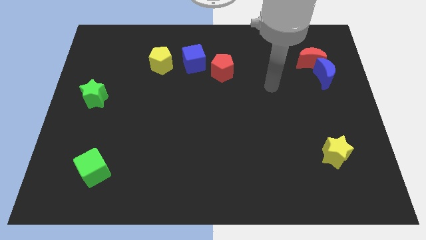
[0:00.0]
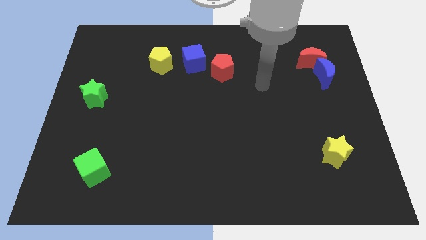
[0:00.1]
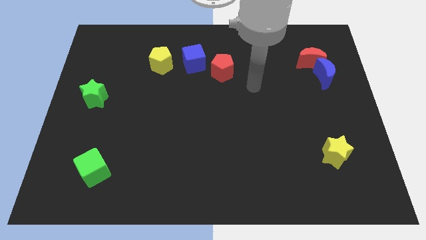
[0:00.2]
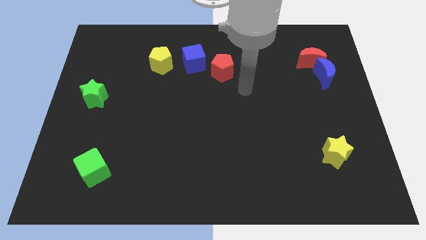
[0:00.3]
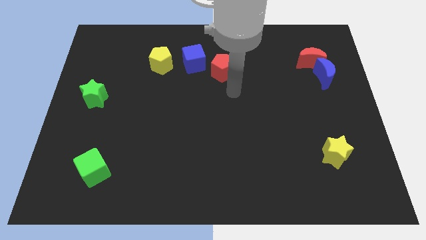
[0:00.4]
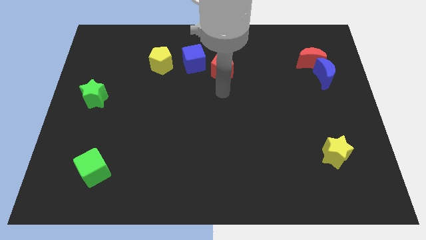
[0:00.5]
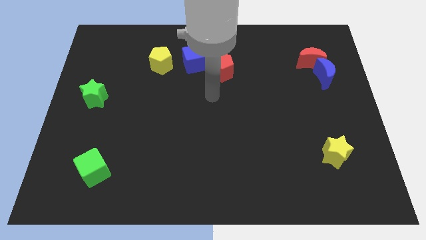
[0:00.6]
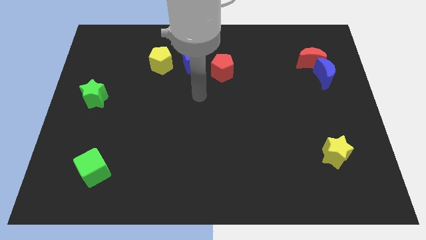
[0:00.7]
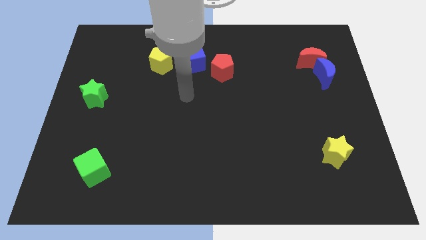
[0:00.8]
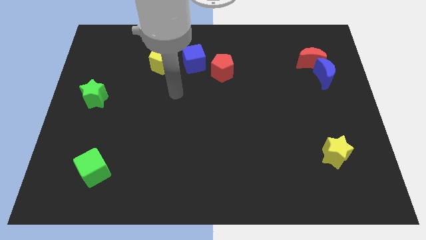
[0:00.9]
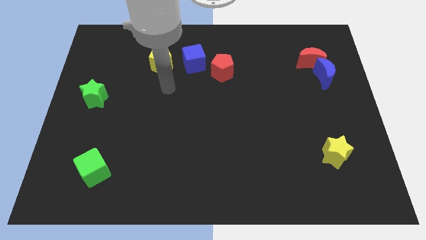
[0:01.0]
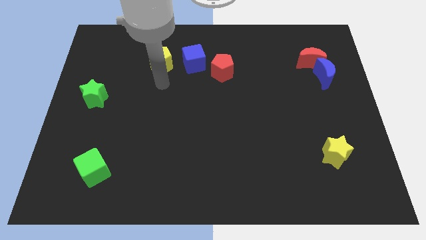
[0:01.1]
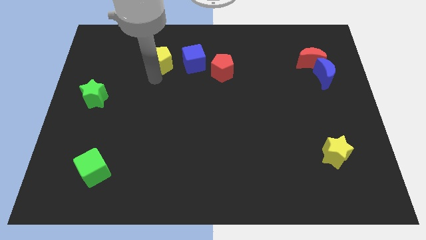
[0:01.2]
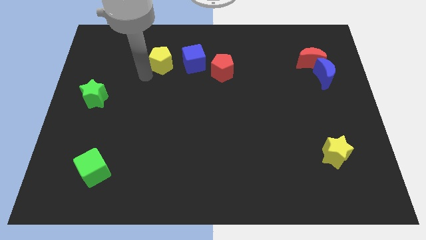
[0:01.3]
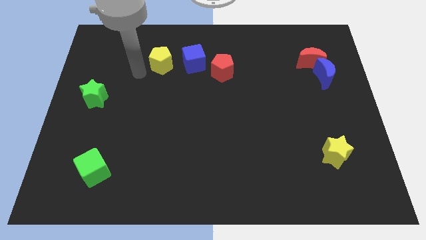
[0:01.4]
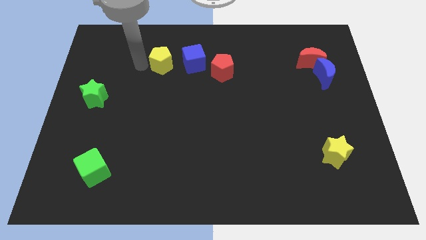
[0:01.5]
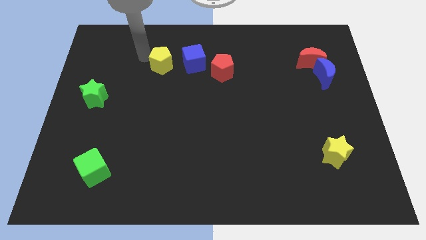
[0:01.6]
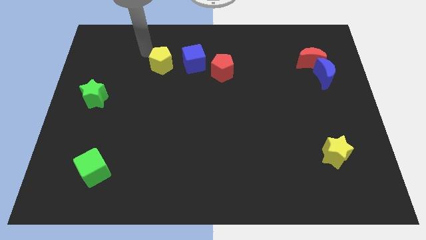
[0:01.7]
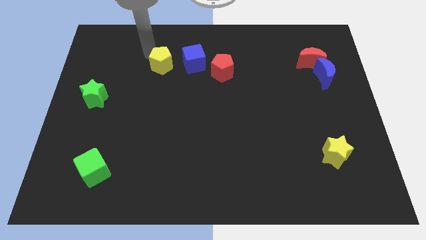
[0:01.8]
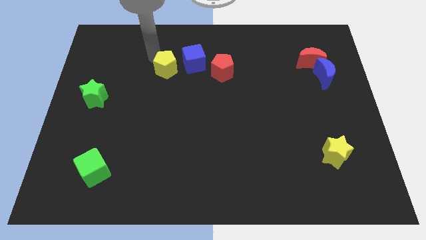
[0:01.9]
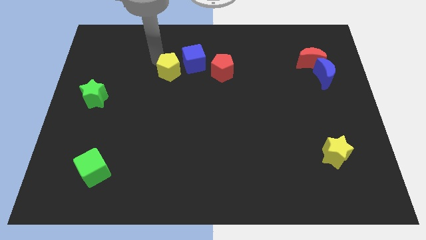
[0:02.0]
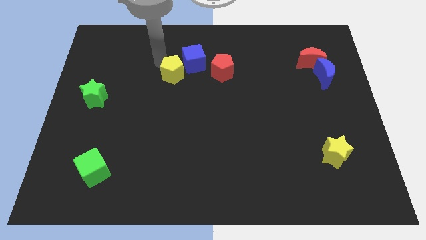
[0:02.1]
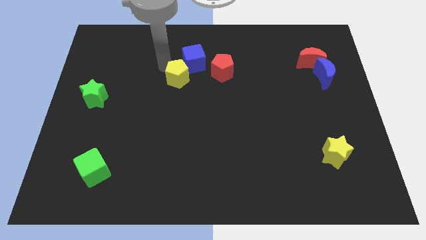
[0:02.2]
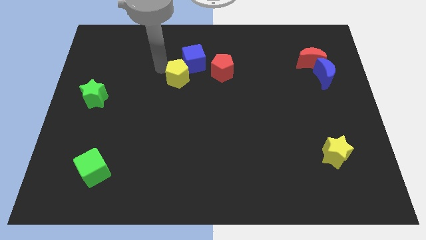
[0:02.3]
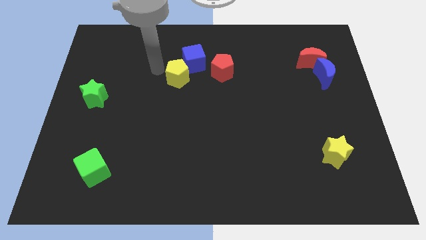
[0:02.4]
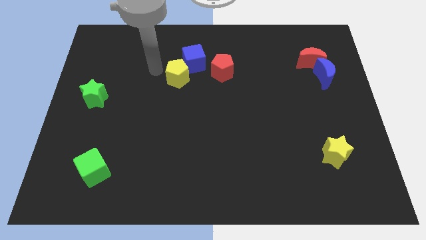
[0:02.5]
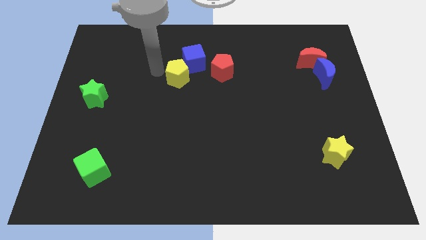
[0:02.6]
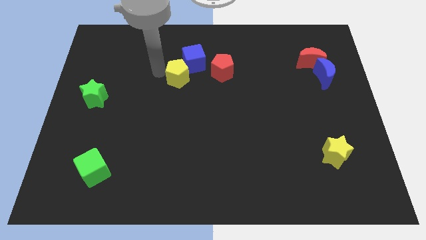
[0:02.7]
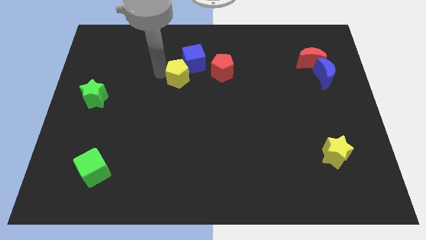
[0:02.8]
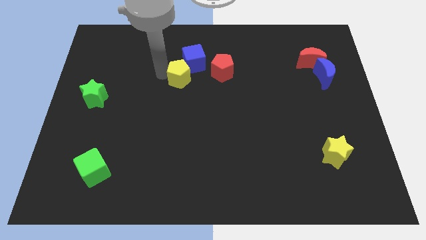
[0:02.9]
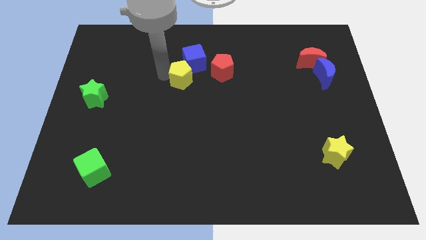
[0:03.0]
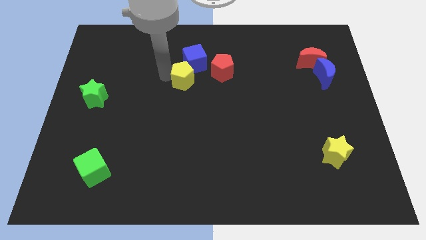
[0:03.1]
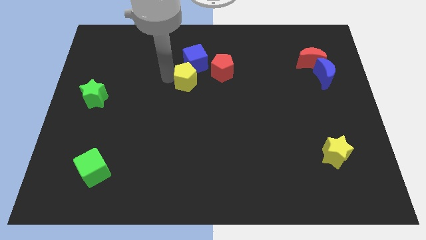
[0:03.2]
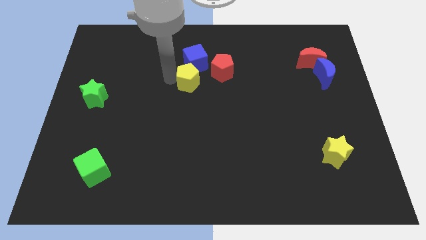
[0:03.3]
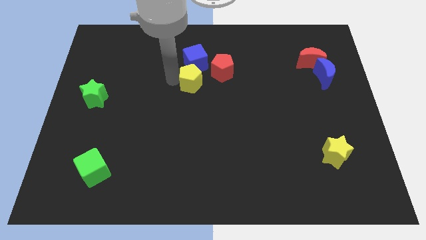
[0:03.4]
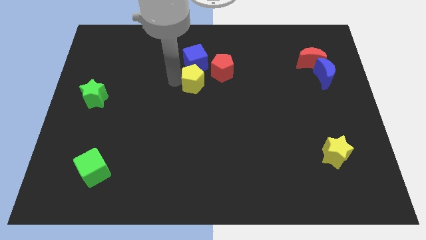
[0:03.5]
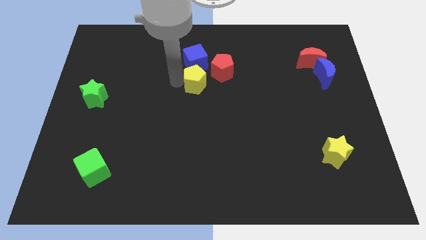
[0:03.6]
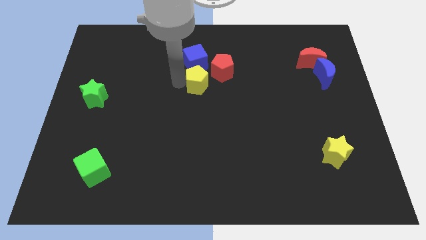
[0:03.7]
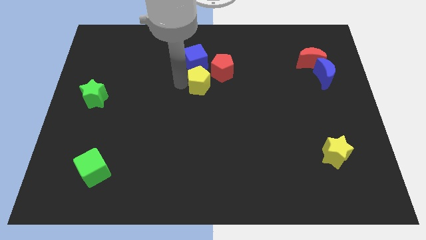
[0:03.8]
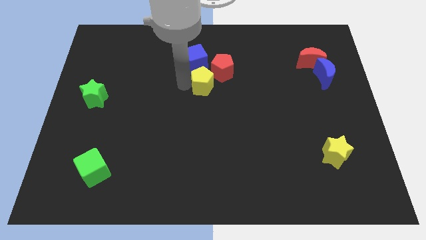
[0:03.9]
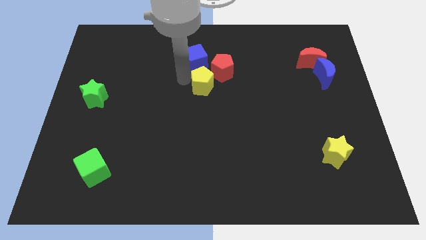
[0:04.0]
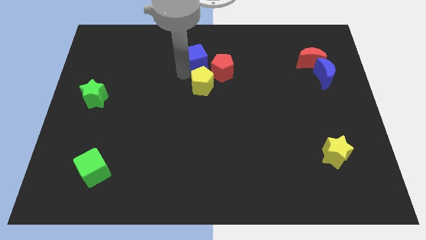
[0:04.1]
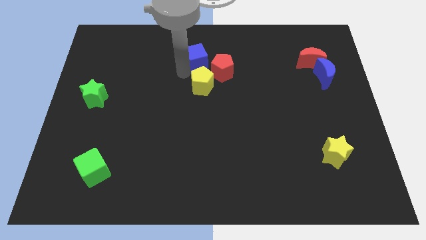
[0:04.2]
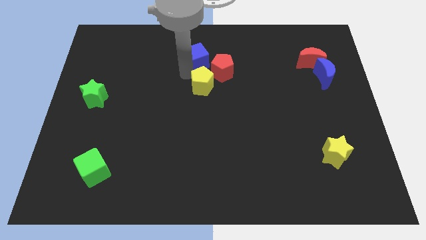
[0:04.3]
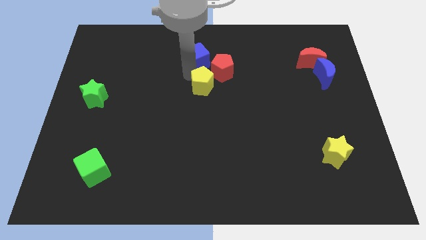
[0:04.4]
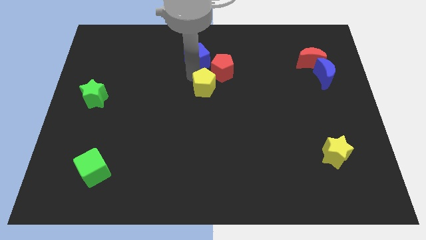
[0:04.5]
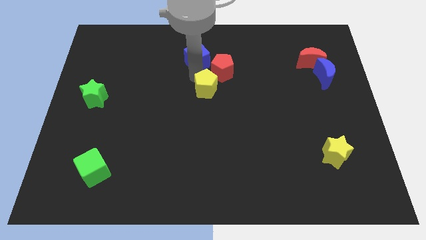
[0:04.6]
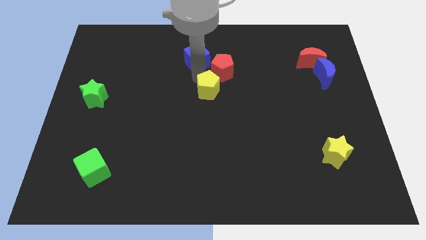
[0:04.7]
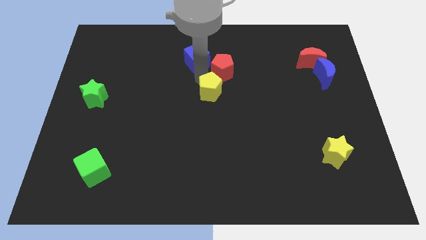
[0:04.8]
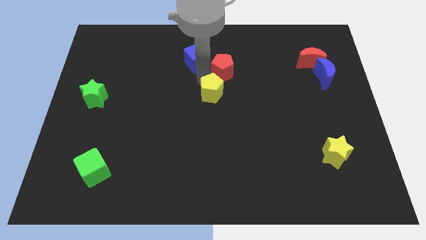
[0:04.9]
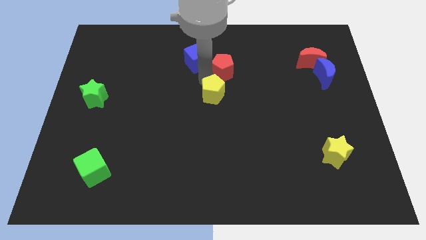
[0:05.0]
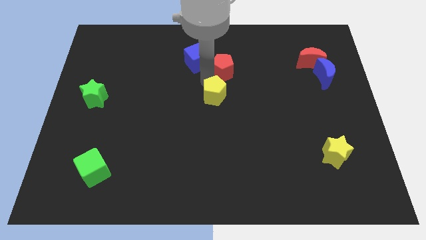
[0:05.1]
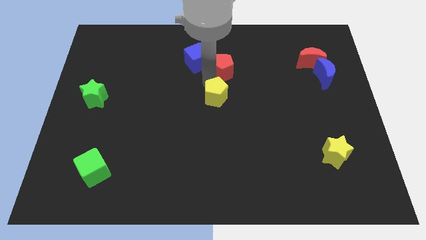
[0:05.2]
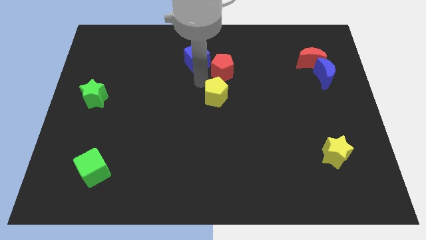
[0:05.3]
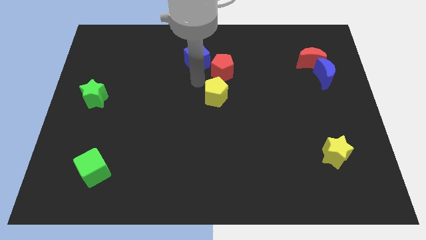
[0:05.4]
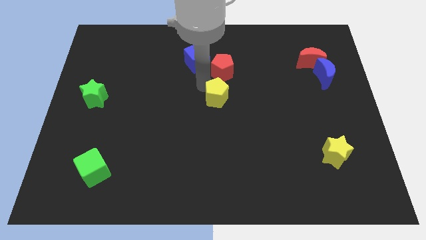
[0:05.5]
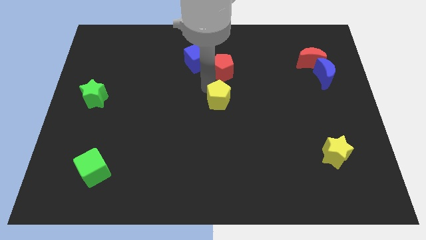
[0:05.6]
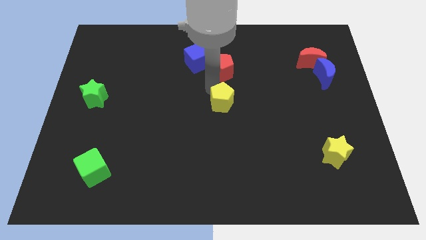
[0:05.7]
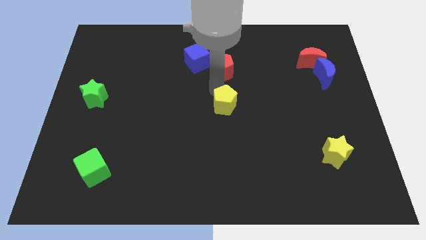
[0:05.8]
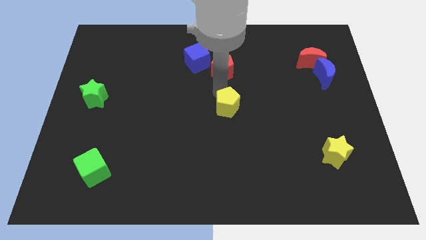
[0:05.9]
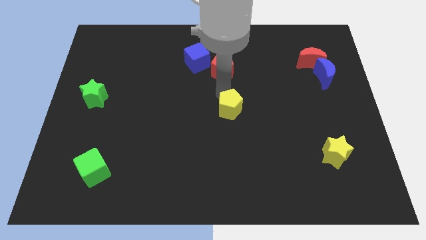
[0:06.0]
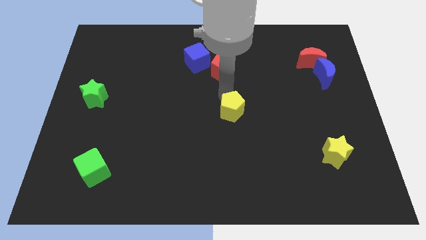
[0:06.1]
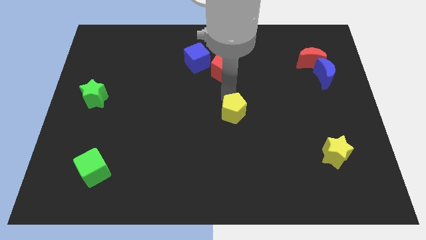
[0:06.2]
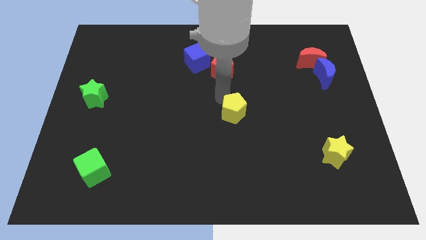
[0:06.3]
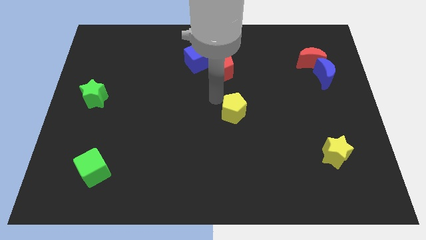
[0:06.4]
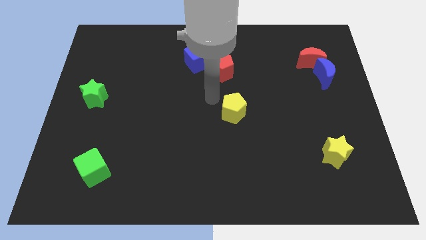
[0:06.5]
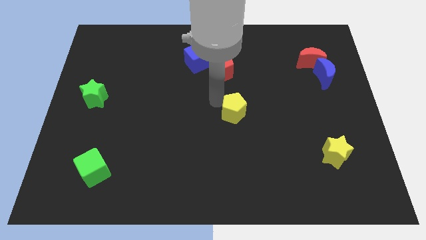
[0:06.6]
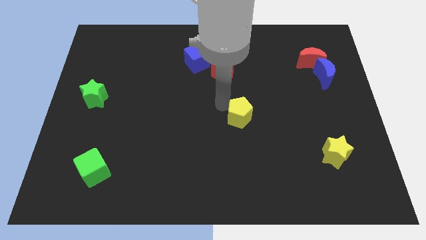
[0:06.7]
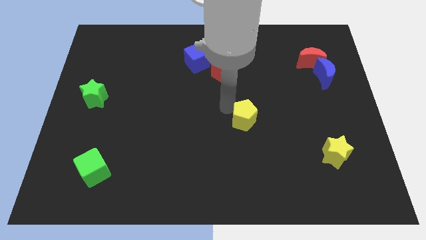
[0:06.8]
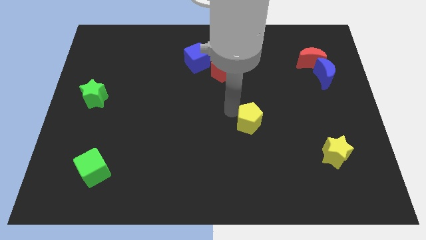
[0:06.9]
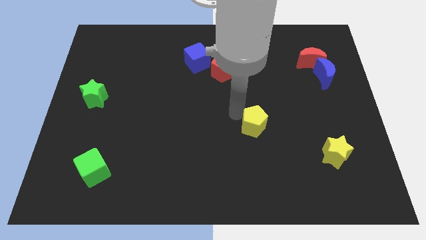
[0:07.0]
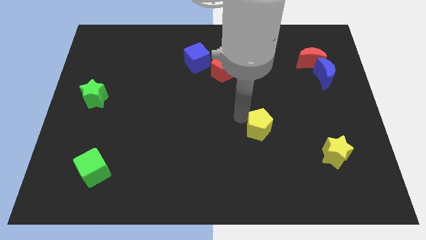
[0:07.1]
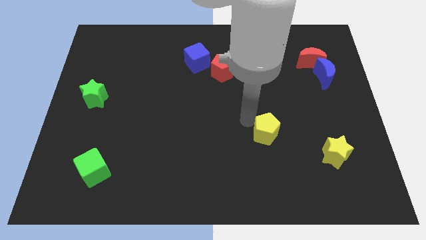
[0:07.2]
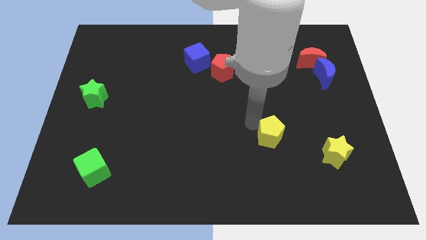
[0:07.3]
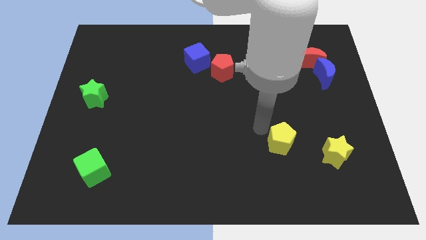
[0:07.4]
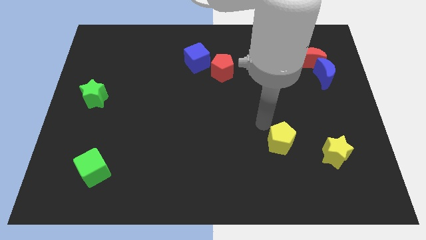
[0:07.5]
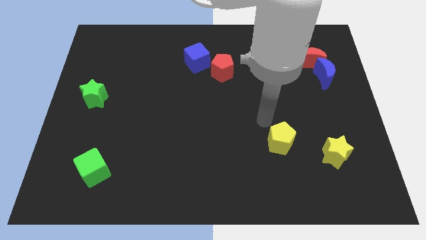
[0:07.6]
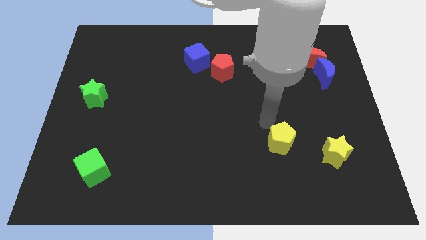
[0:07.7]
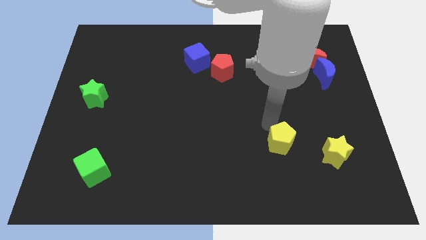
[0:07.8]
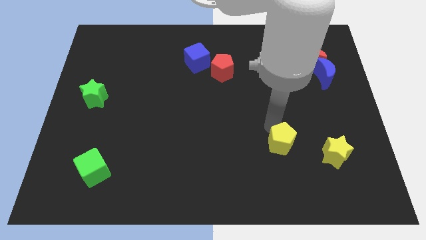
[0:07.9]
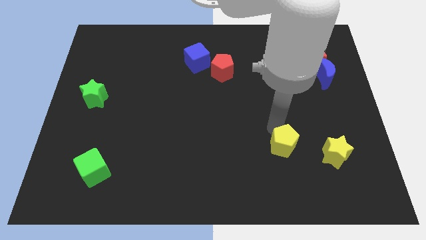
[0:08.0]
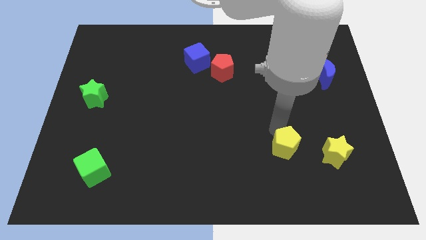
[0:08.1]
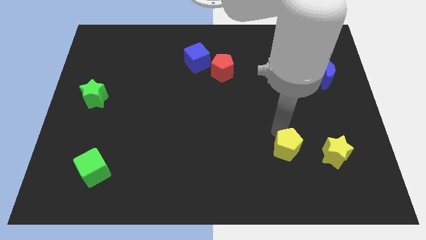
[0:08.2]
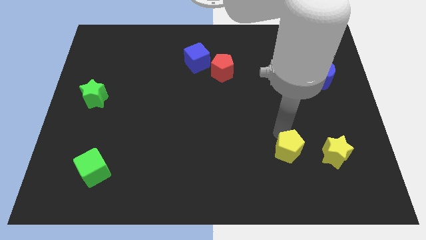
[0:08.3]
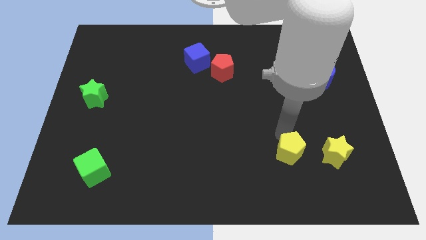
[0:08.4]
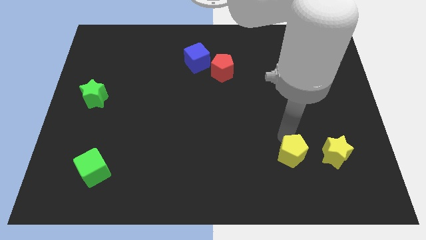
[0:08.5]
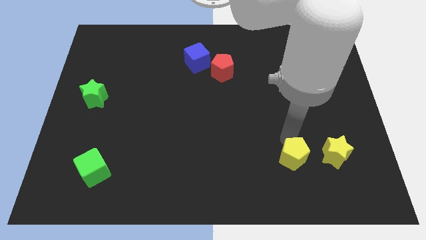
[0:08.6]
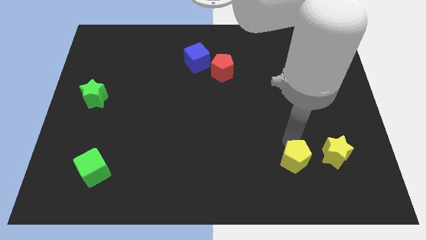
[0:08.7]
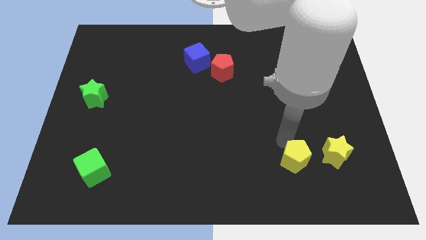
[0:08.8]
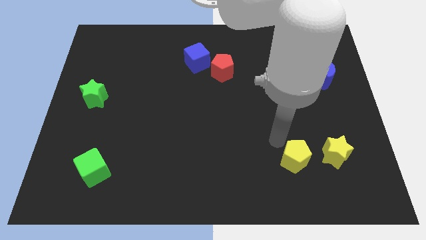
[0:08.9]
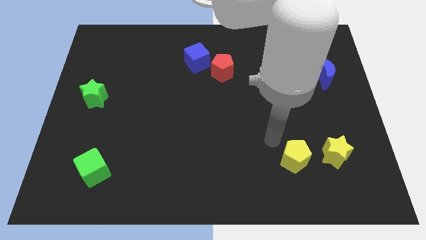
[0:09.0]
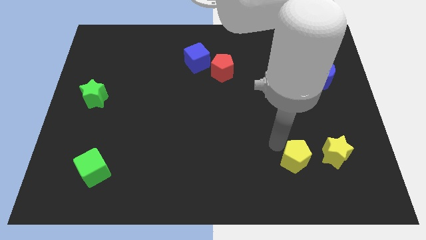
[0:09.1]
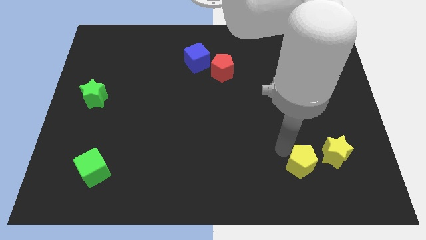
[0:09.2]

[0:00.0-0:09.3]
move the yellow pentagon diagonally down and to the left of the yellow star
